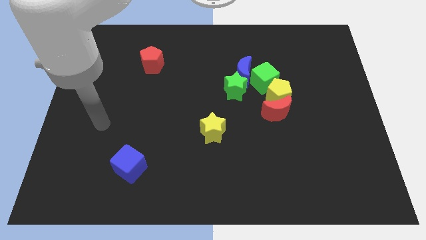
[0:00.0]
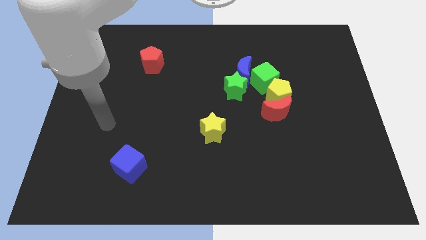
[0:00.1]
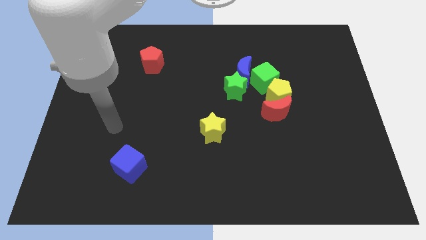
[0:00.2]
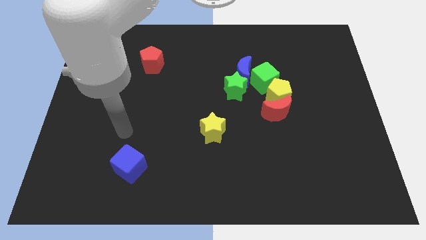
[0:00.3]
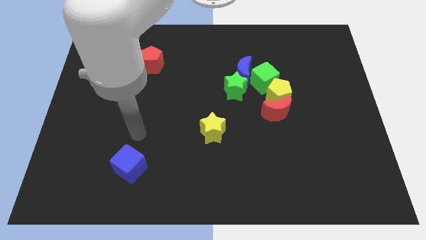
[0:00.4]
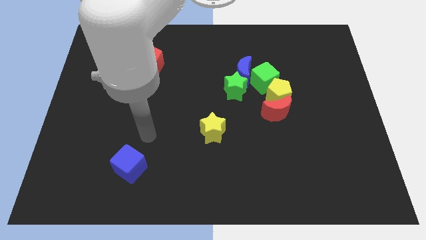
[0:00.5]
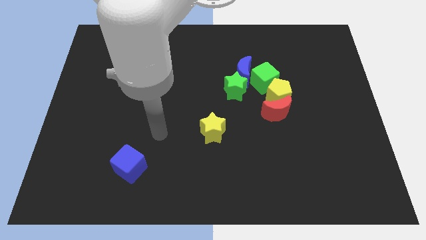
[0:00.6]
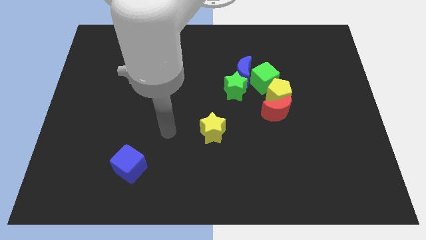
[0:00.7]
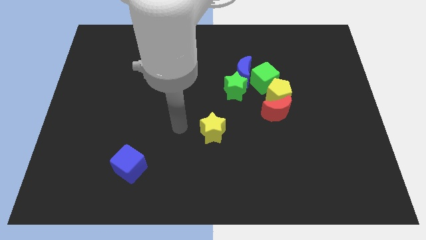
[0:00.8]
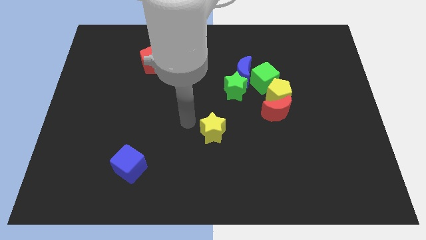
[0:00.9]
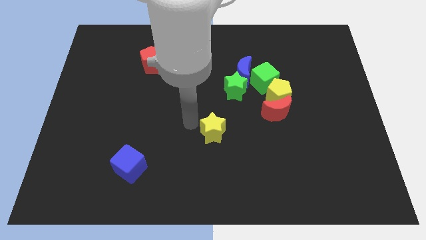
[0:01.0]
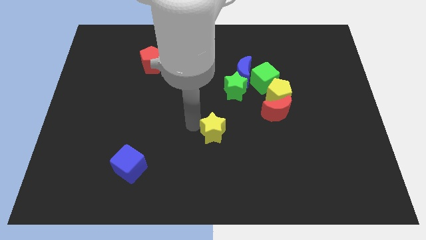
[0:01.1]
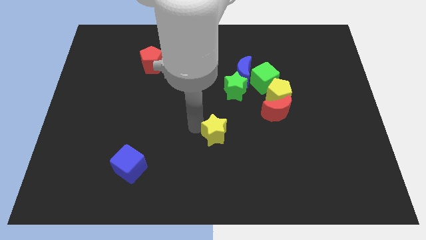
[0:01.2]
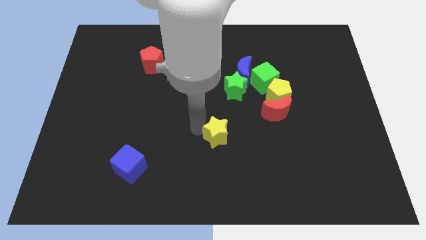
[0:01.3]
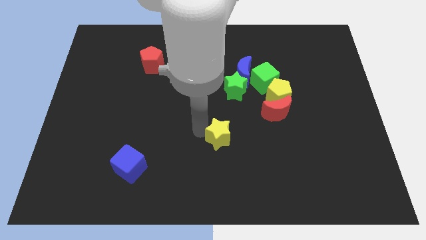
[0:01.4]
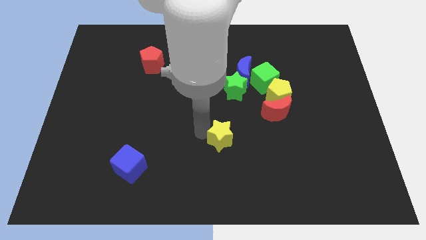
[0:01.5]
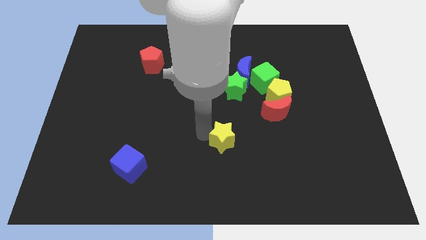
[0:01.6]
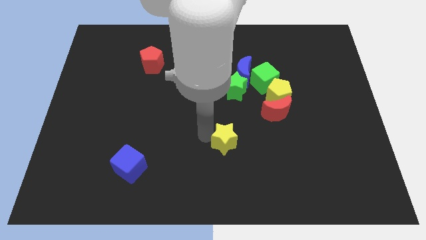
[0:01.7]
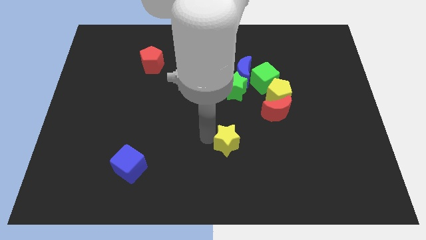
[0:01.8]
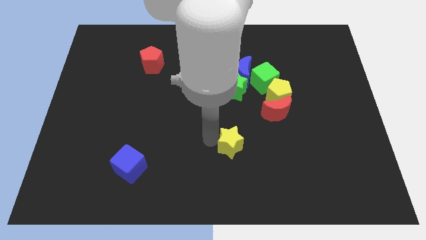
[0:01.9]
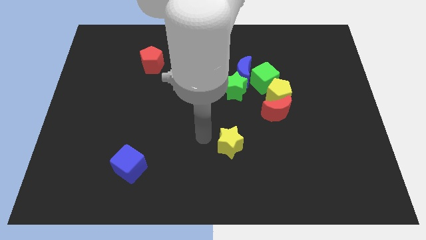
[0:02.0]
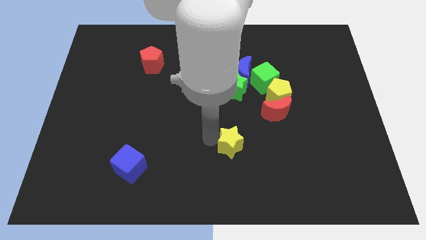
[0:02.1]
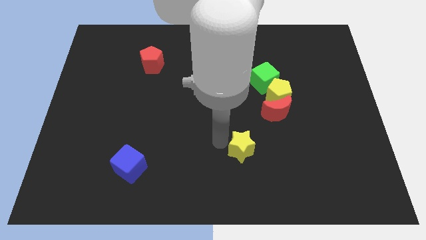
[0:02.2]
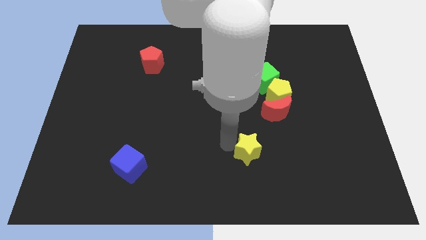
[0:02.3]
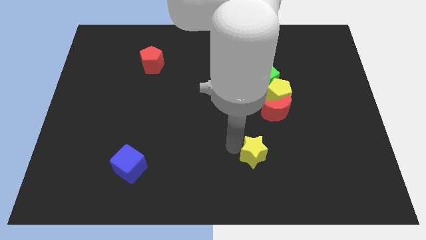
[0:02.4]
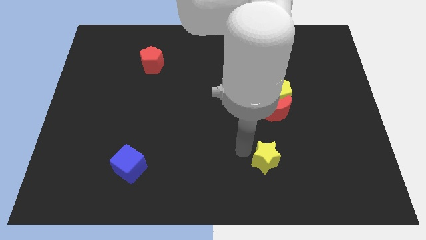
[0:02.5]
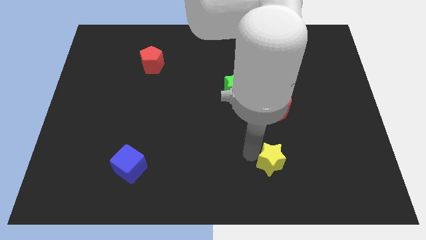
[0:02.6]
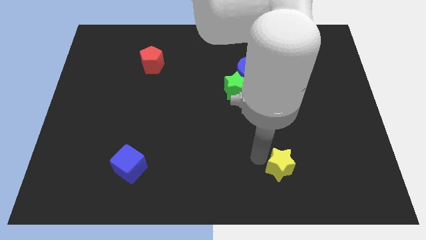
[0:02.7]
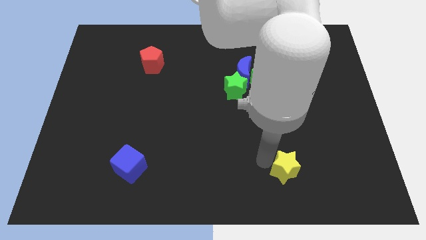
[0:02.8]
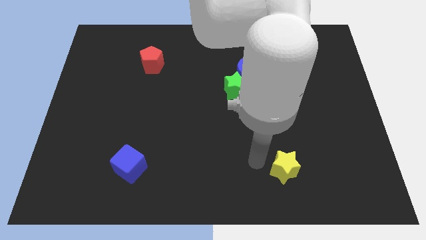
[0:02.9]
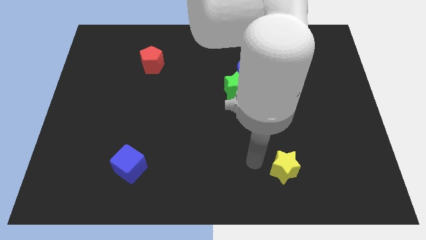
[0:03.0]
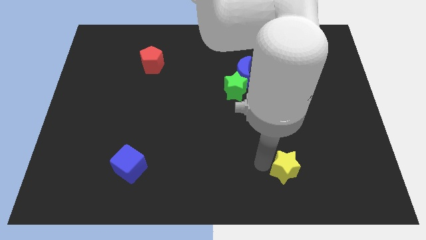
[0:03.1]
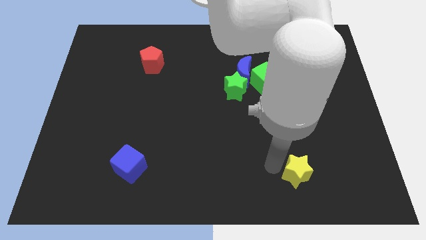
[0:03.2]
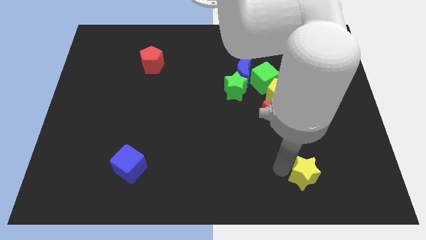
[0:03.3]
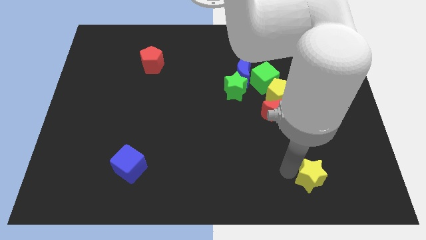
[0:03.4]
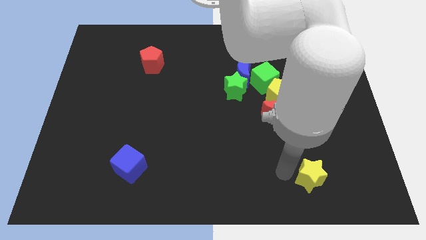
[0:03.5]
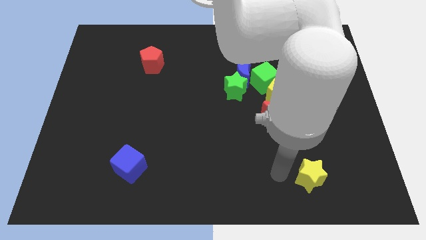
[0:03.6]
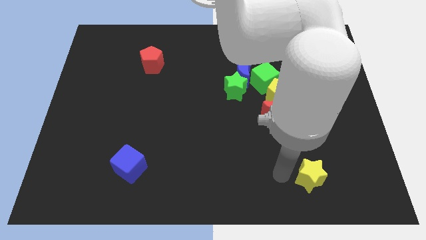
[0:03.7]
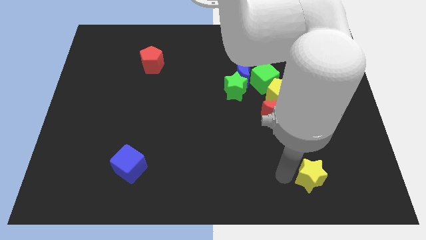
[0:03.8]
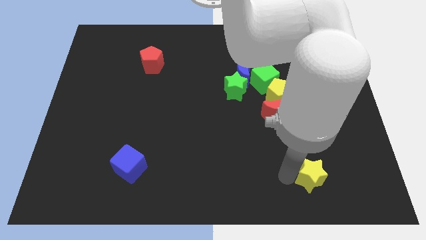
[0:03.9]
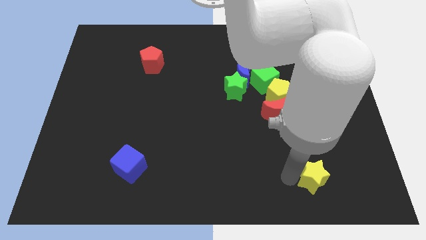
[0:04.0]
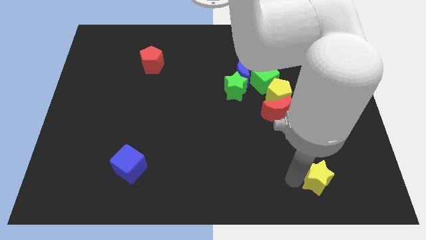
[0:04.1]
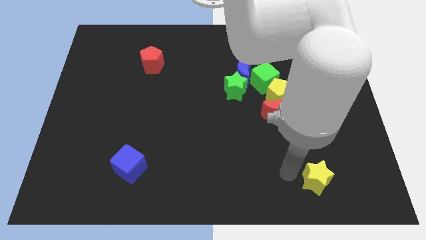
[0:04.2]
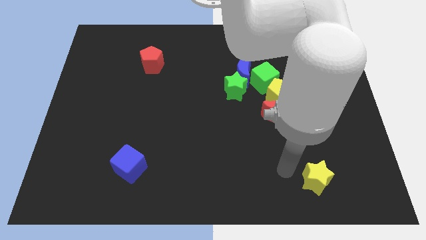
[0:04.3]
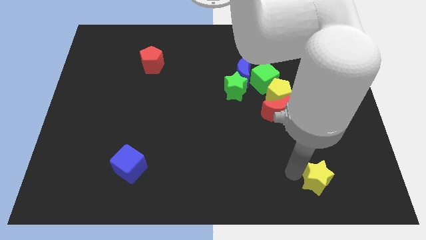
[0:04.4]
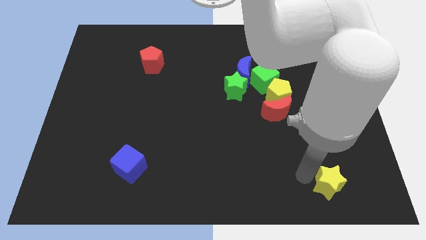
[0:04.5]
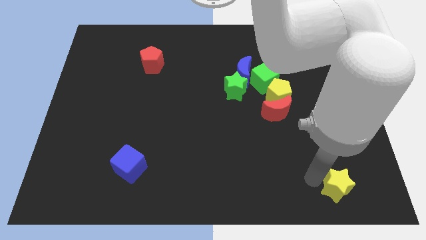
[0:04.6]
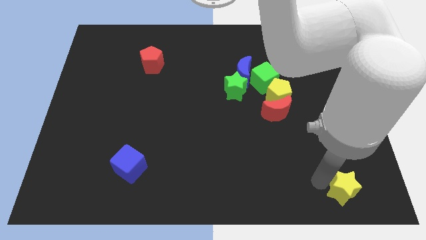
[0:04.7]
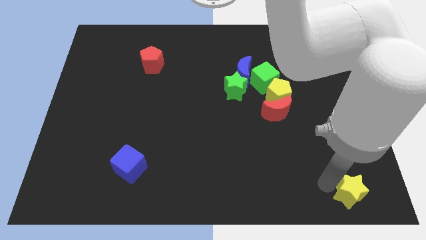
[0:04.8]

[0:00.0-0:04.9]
put the yellow star to the lower right corner
